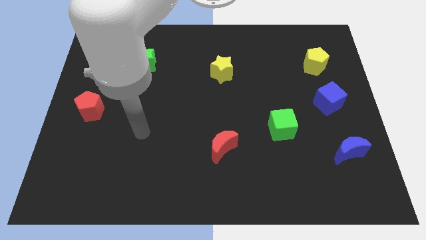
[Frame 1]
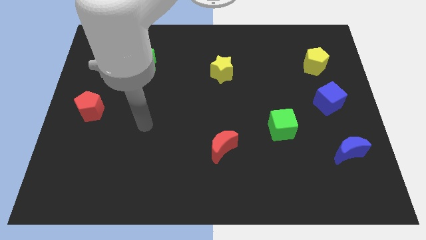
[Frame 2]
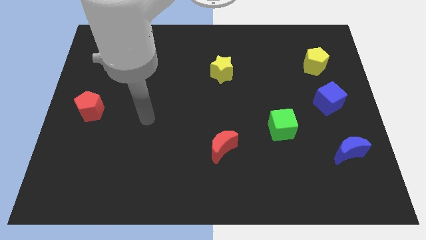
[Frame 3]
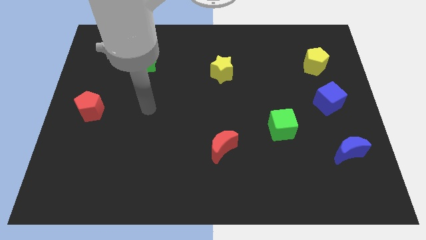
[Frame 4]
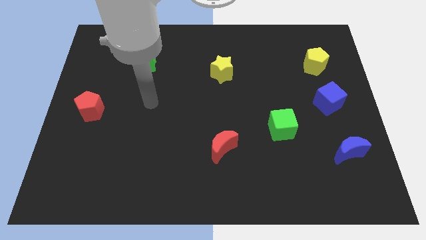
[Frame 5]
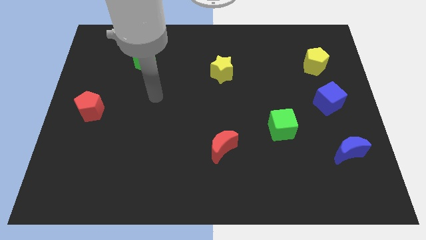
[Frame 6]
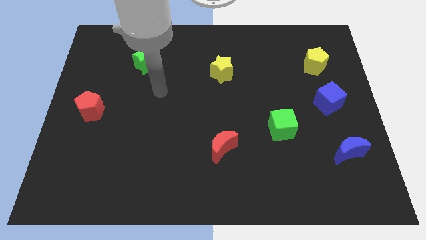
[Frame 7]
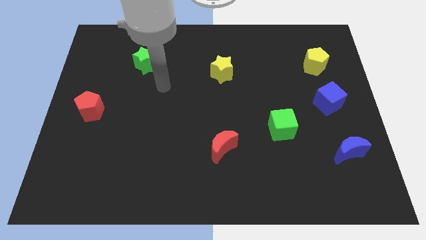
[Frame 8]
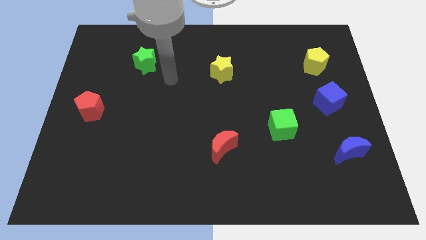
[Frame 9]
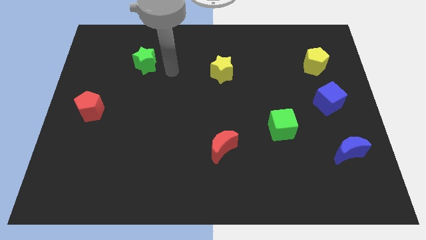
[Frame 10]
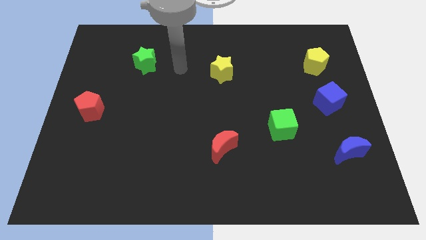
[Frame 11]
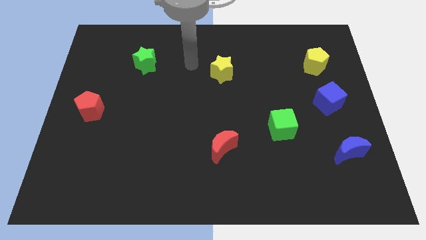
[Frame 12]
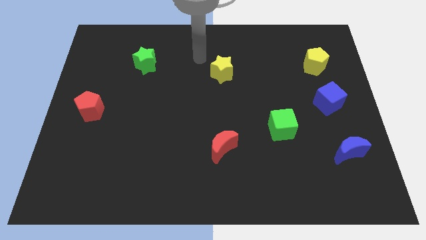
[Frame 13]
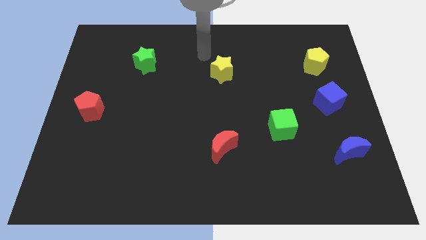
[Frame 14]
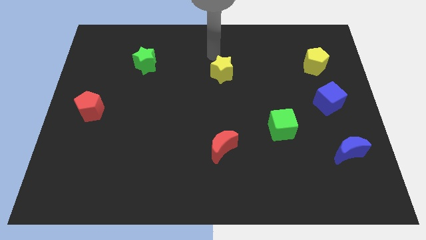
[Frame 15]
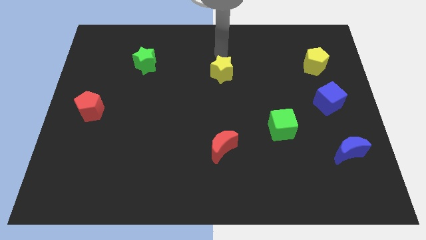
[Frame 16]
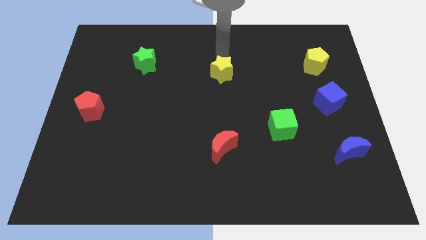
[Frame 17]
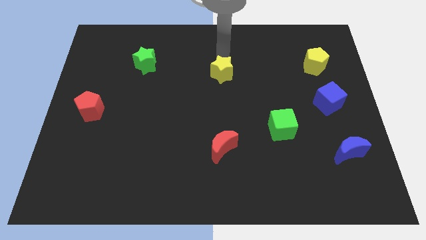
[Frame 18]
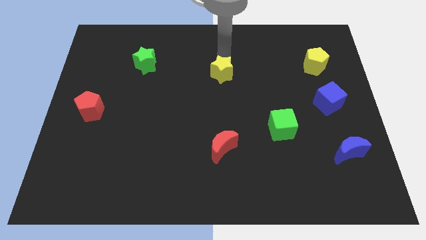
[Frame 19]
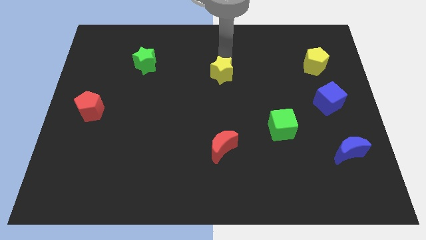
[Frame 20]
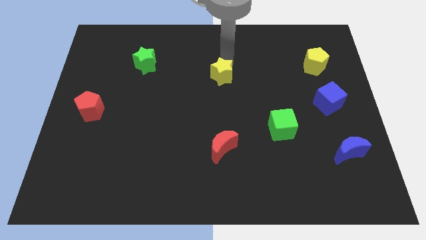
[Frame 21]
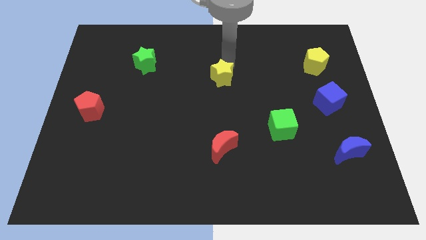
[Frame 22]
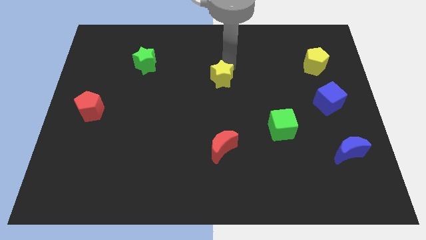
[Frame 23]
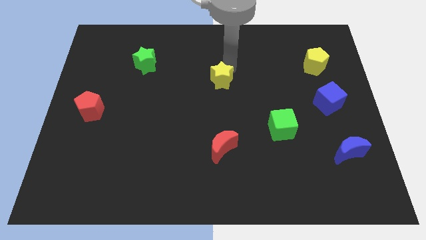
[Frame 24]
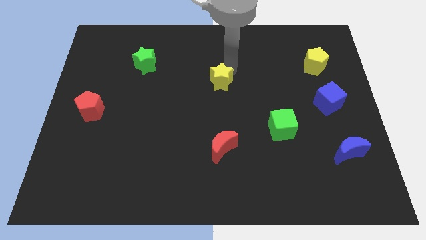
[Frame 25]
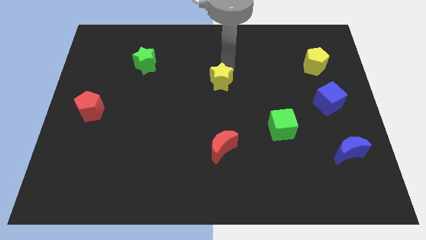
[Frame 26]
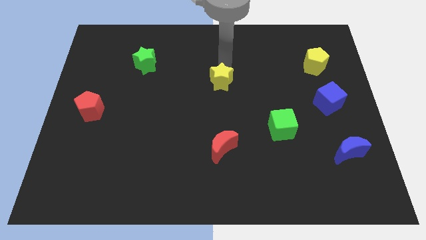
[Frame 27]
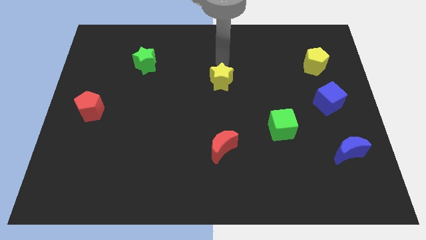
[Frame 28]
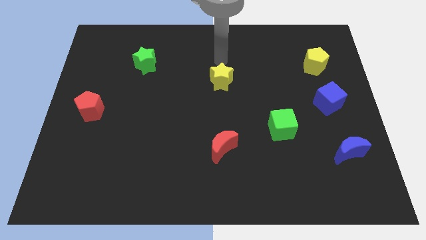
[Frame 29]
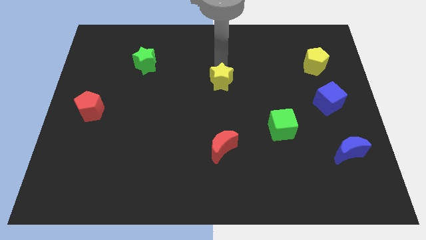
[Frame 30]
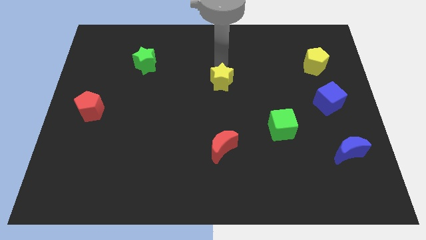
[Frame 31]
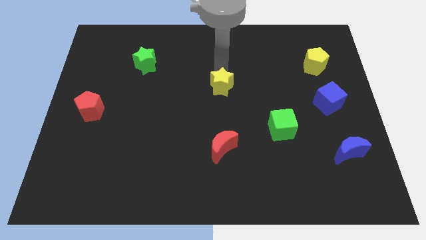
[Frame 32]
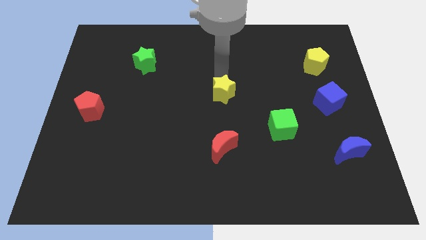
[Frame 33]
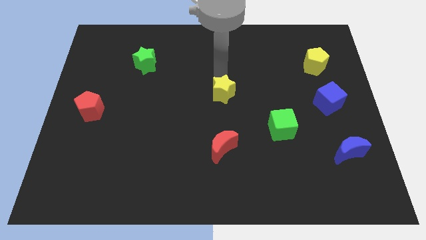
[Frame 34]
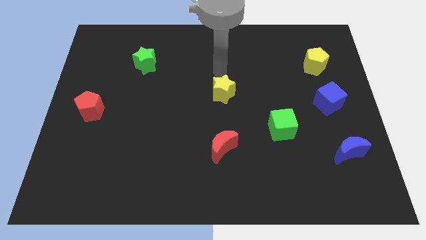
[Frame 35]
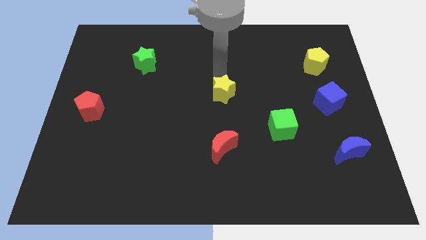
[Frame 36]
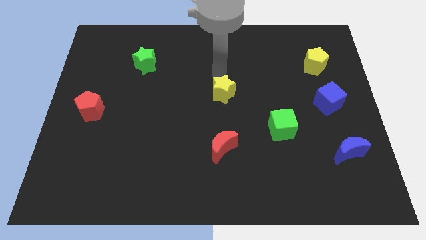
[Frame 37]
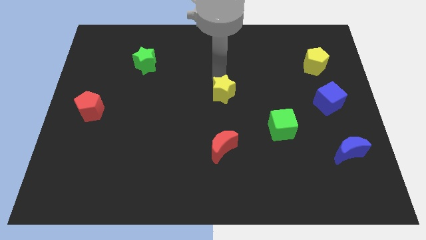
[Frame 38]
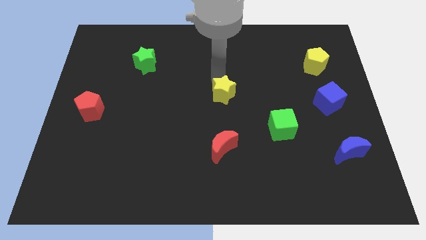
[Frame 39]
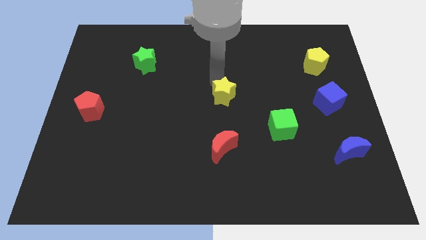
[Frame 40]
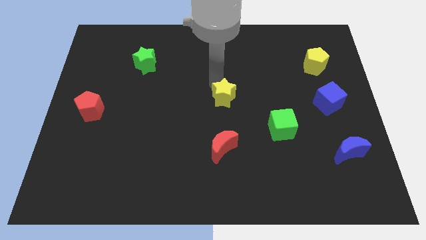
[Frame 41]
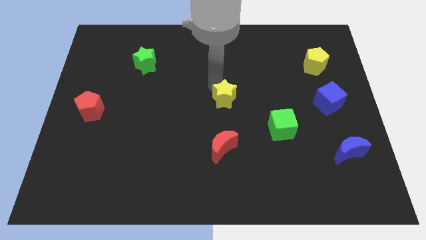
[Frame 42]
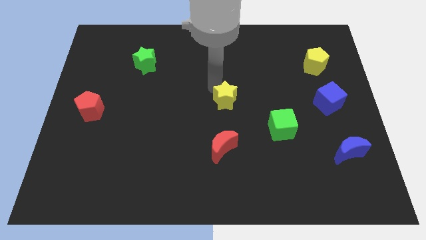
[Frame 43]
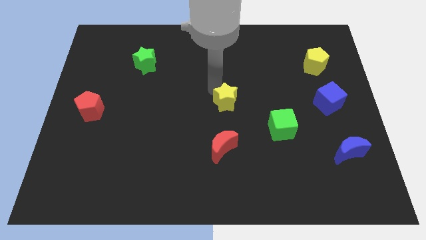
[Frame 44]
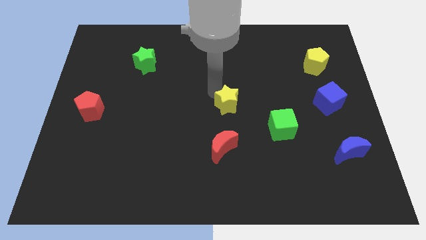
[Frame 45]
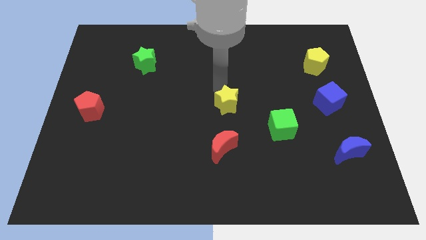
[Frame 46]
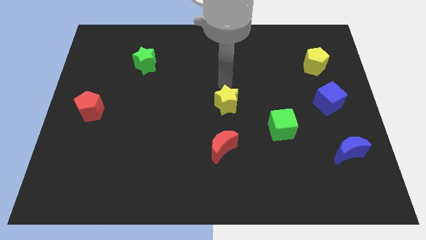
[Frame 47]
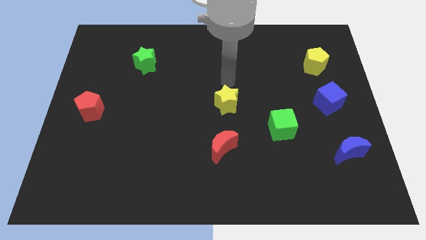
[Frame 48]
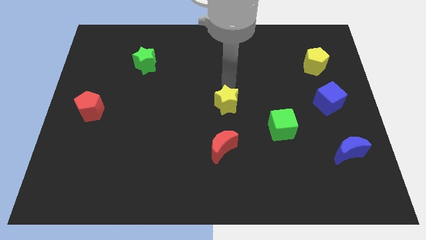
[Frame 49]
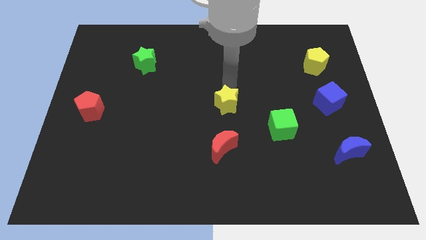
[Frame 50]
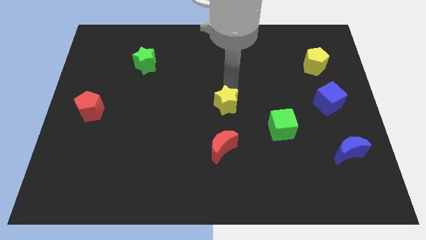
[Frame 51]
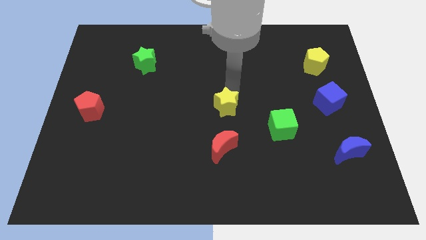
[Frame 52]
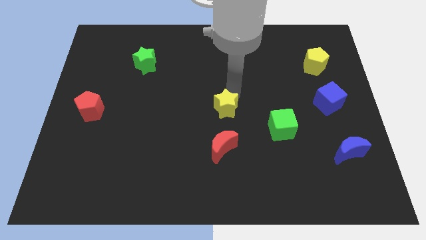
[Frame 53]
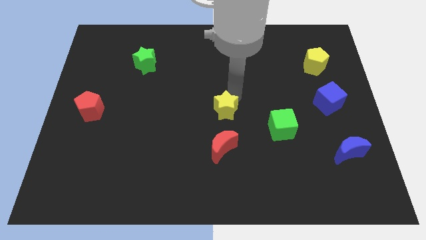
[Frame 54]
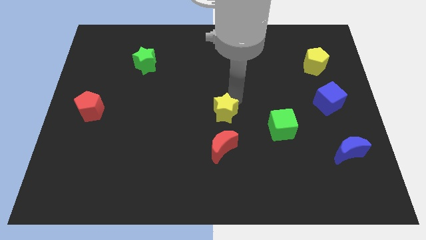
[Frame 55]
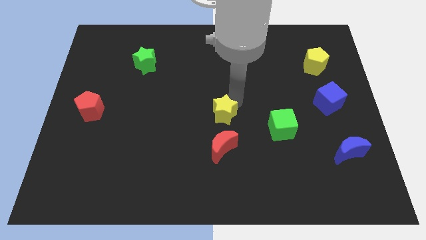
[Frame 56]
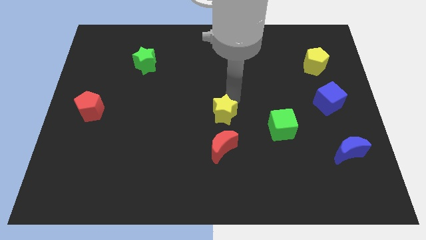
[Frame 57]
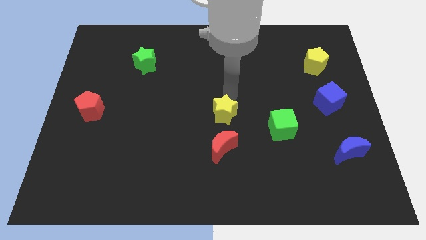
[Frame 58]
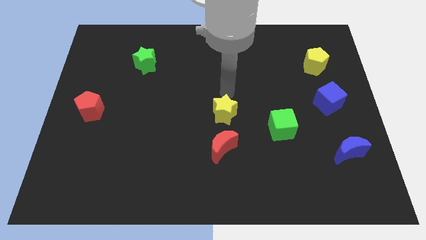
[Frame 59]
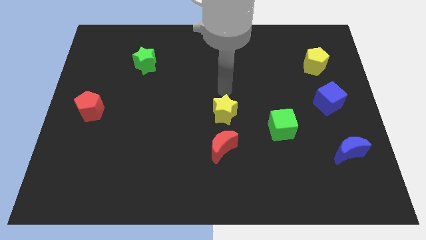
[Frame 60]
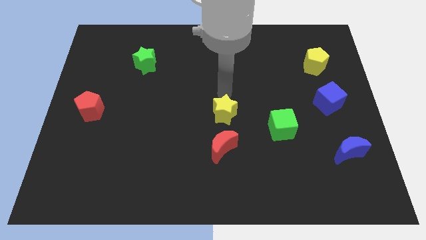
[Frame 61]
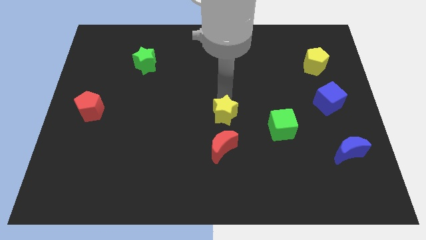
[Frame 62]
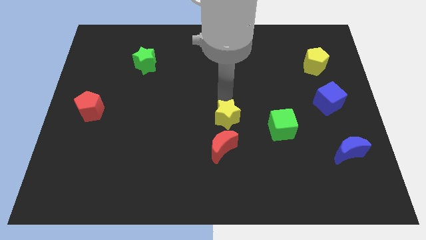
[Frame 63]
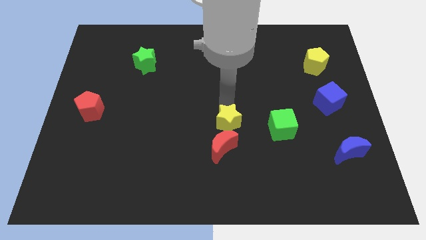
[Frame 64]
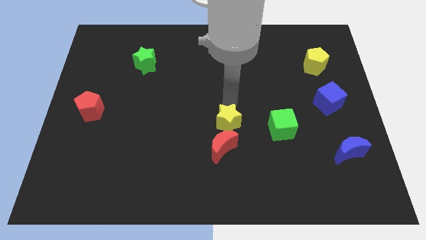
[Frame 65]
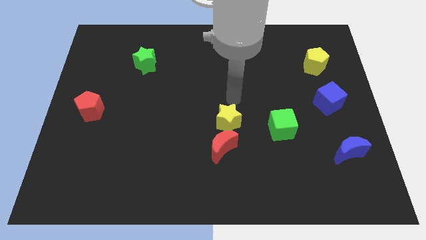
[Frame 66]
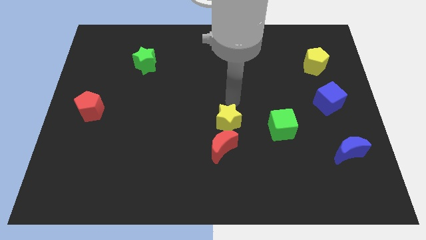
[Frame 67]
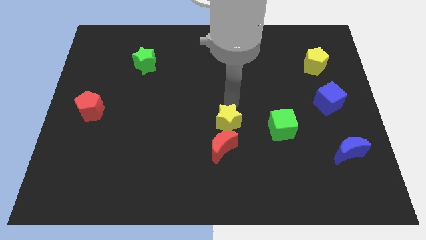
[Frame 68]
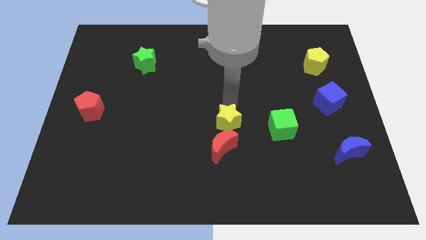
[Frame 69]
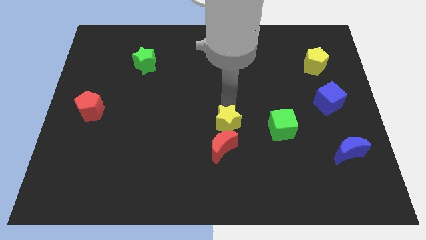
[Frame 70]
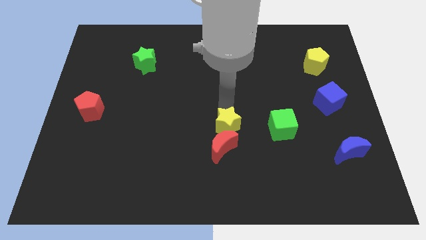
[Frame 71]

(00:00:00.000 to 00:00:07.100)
slide the yellow star to the red moon
